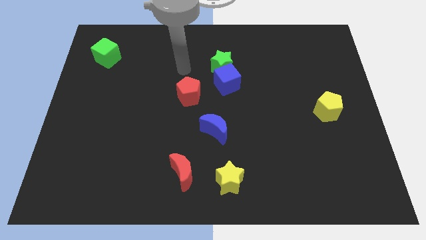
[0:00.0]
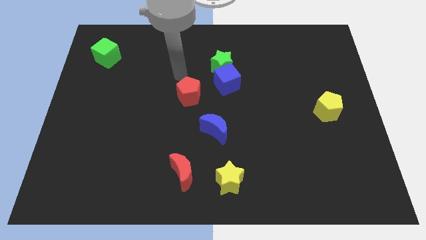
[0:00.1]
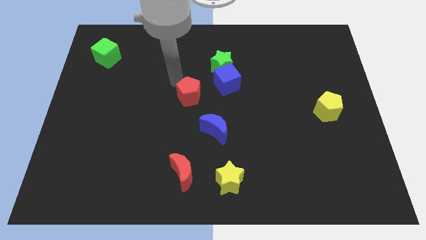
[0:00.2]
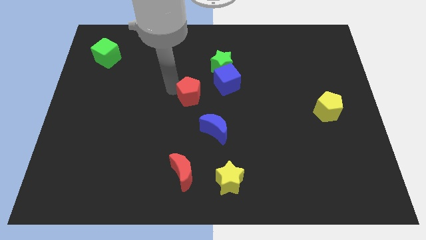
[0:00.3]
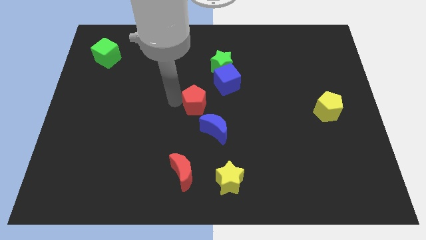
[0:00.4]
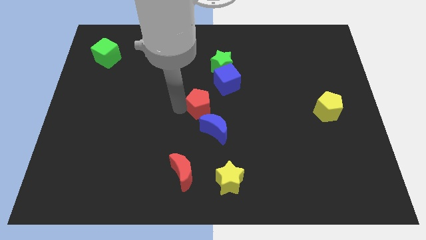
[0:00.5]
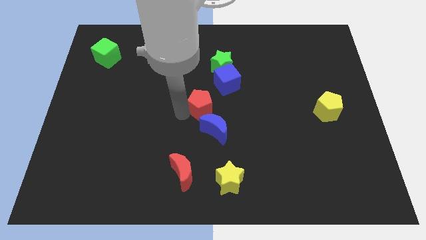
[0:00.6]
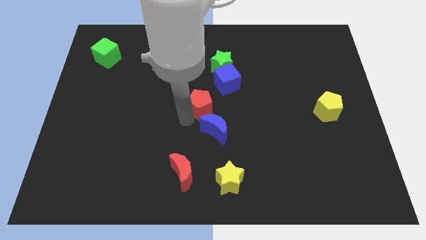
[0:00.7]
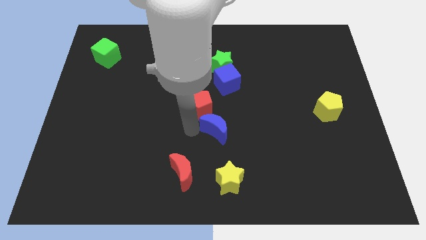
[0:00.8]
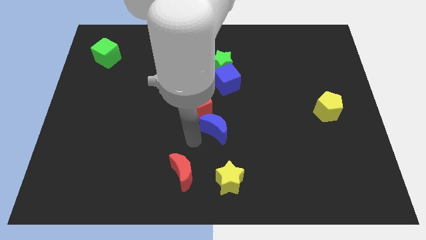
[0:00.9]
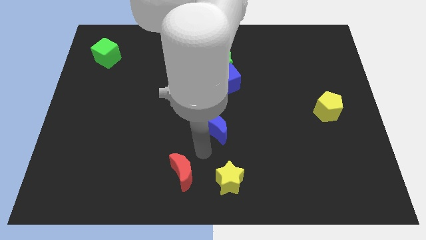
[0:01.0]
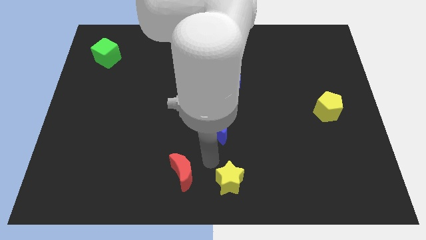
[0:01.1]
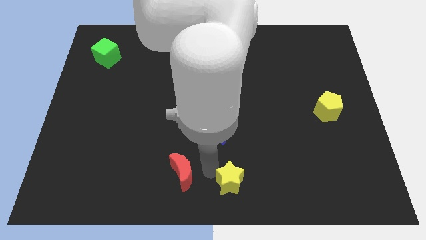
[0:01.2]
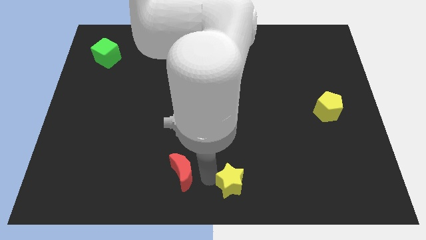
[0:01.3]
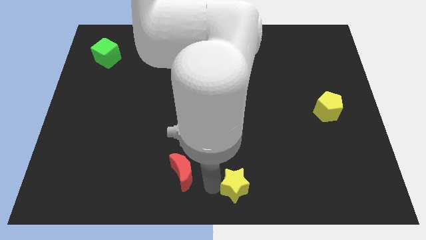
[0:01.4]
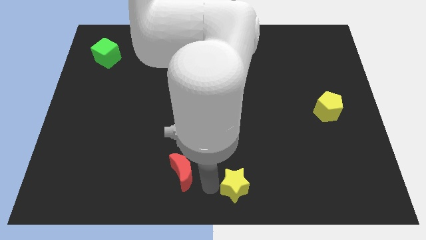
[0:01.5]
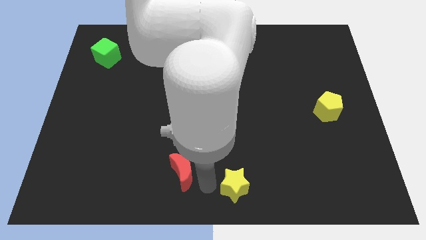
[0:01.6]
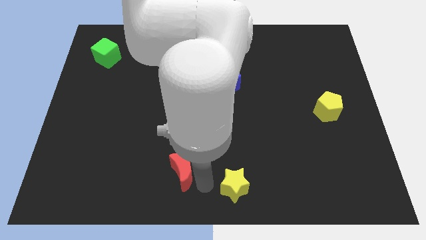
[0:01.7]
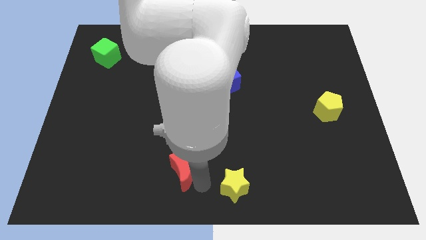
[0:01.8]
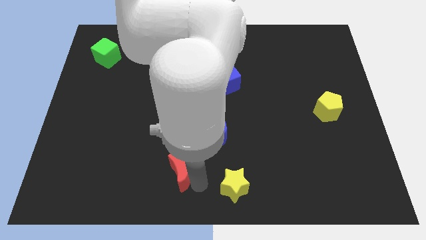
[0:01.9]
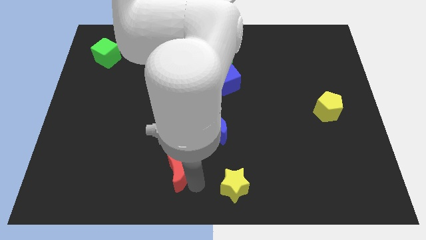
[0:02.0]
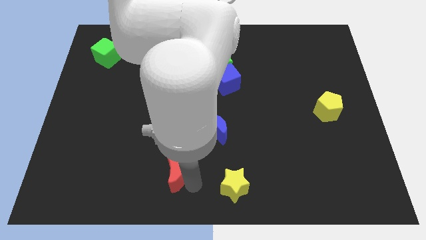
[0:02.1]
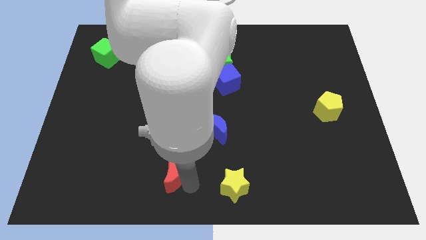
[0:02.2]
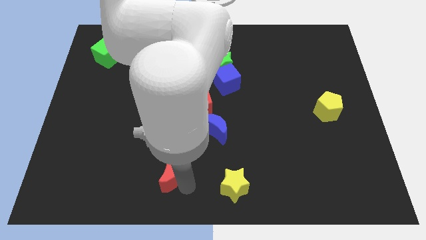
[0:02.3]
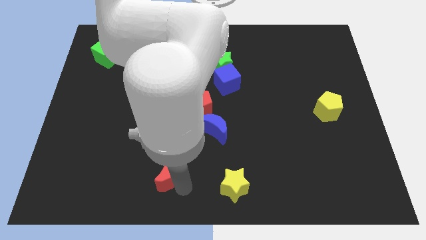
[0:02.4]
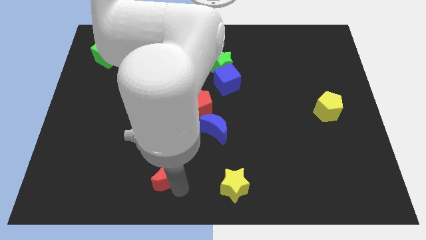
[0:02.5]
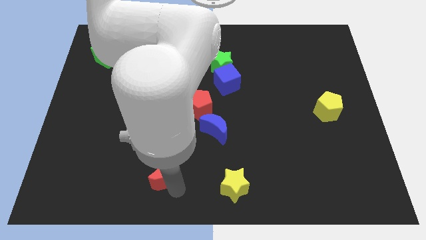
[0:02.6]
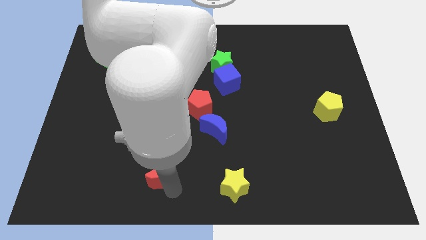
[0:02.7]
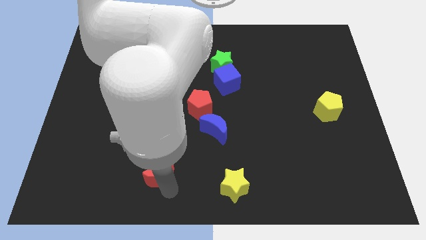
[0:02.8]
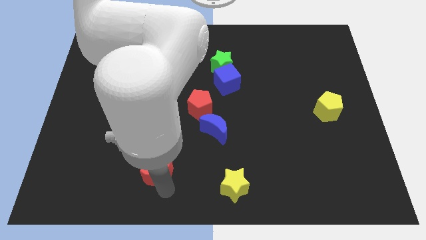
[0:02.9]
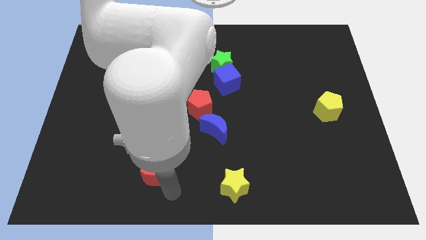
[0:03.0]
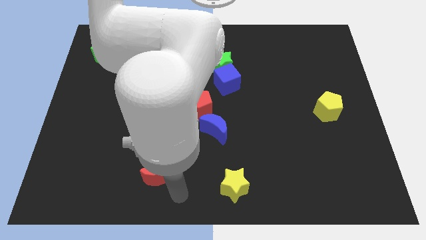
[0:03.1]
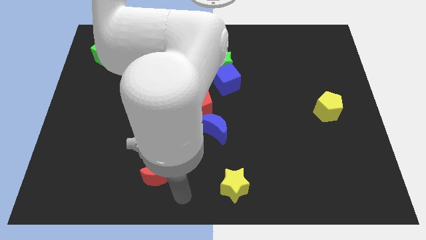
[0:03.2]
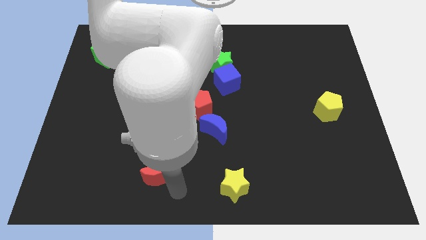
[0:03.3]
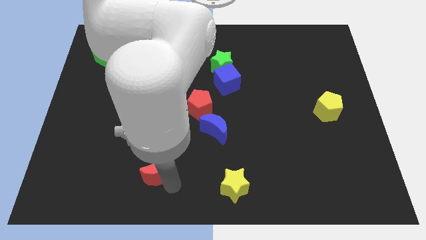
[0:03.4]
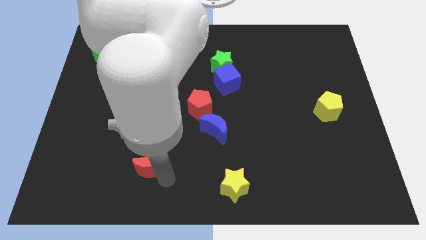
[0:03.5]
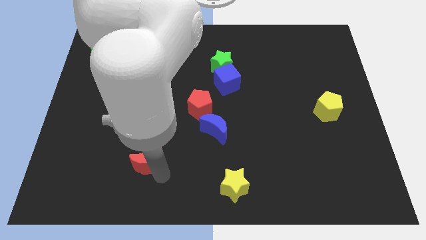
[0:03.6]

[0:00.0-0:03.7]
slide the red moon to the left a bit

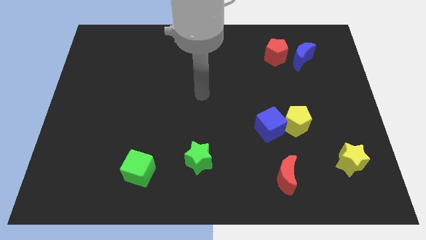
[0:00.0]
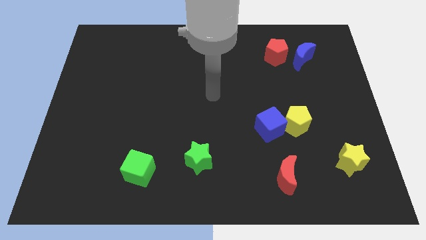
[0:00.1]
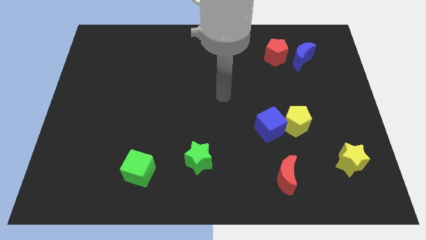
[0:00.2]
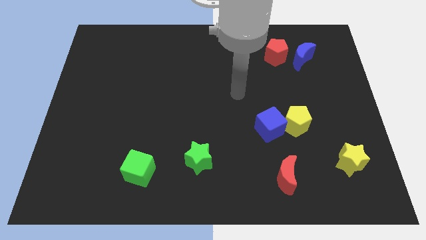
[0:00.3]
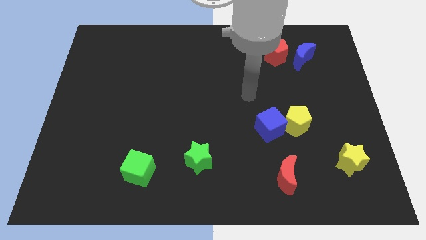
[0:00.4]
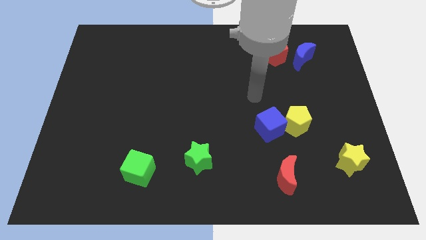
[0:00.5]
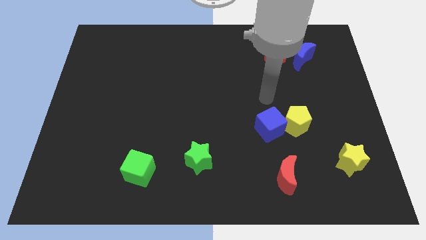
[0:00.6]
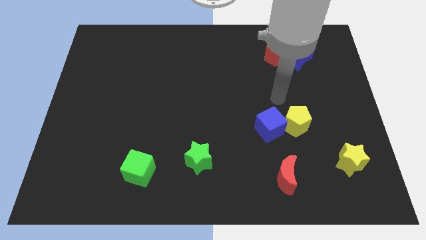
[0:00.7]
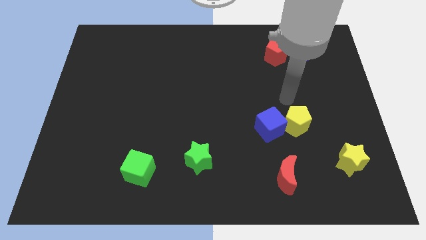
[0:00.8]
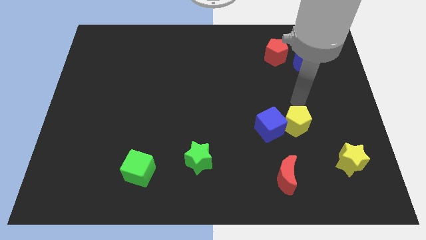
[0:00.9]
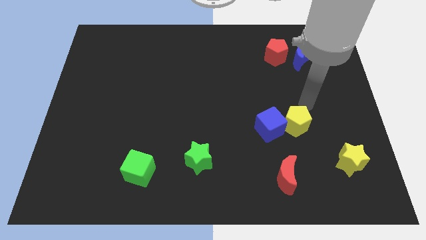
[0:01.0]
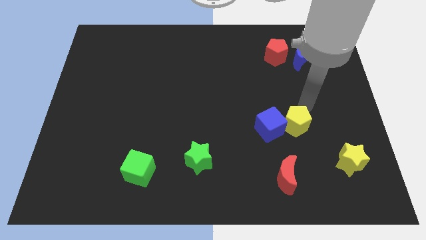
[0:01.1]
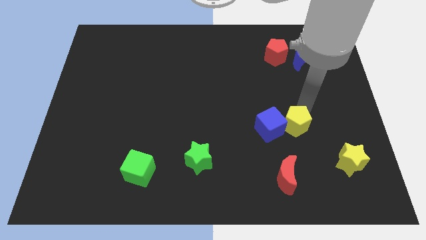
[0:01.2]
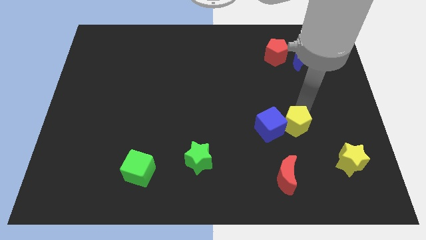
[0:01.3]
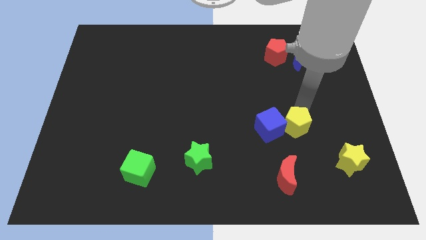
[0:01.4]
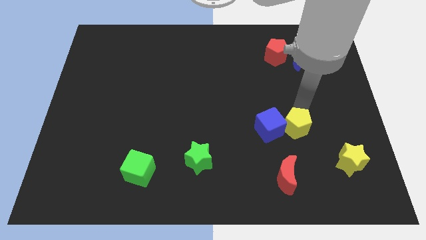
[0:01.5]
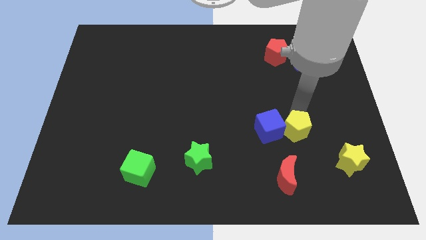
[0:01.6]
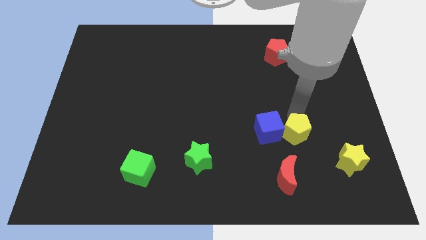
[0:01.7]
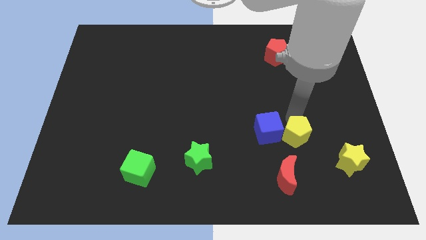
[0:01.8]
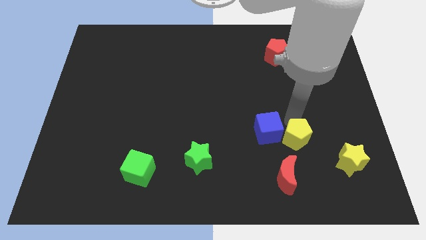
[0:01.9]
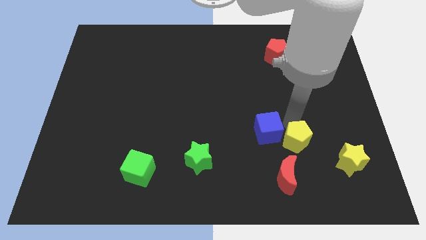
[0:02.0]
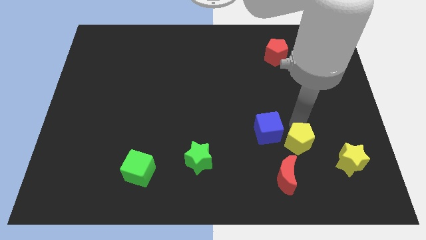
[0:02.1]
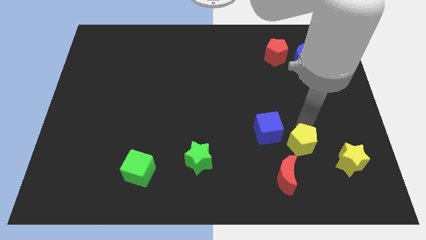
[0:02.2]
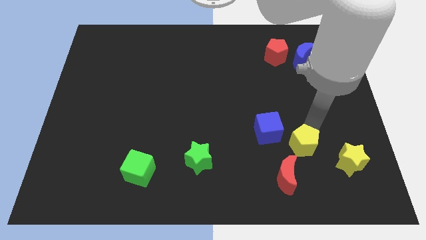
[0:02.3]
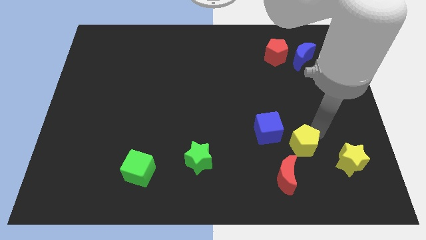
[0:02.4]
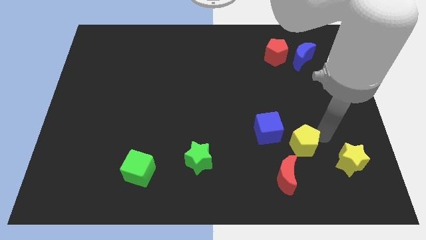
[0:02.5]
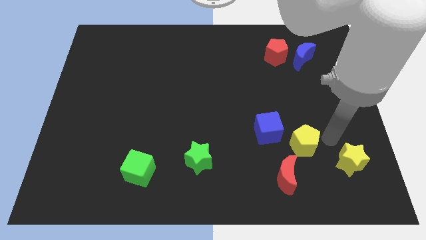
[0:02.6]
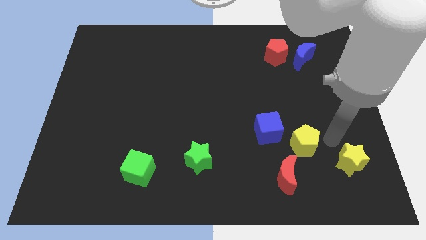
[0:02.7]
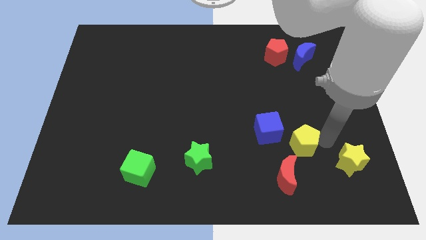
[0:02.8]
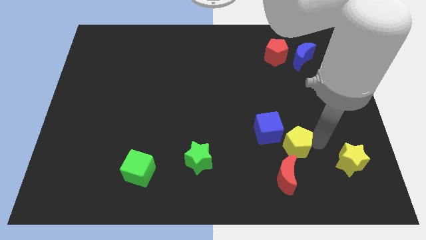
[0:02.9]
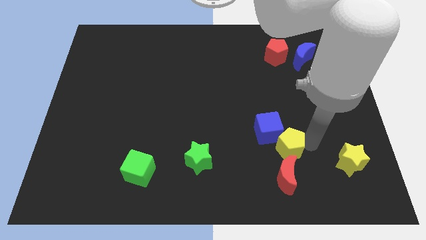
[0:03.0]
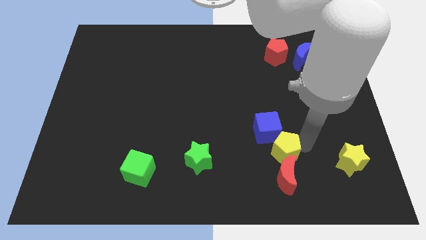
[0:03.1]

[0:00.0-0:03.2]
slightly move the yellow pentagon downwards and to the left

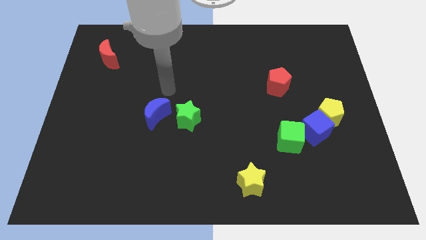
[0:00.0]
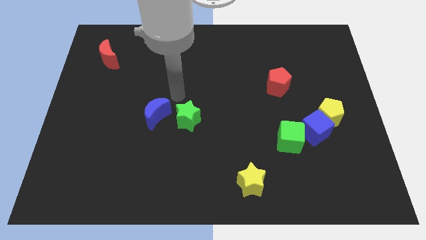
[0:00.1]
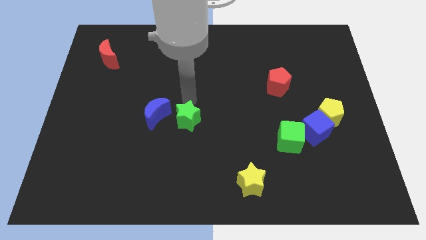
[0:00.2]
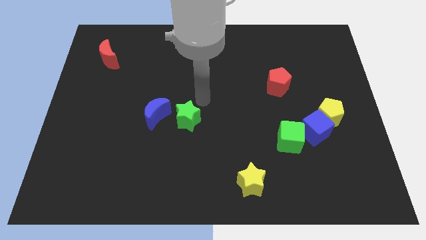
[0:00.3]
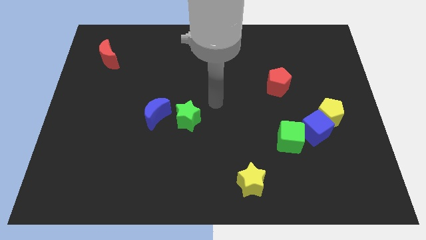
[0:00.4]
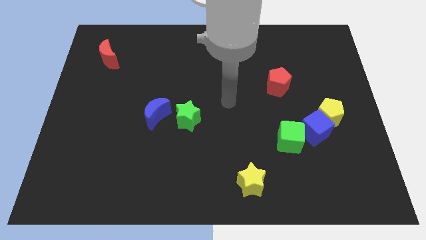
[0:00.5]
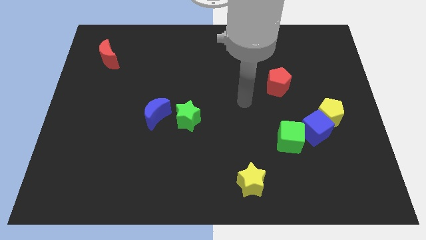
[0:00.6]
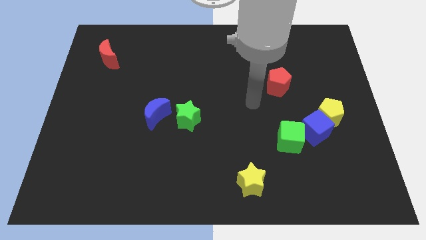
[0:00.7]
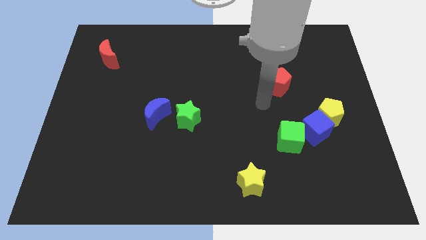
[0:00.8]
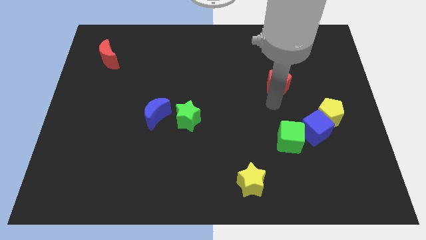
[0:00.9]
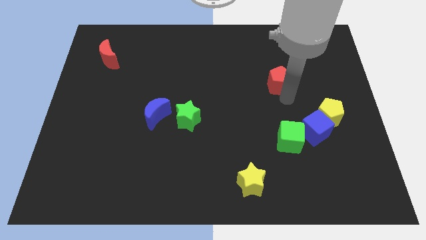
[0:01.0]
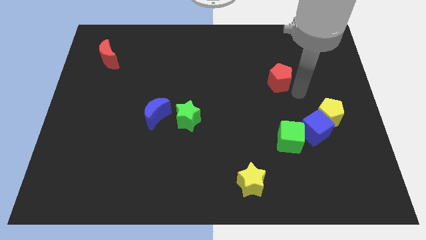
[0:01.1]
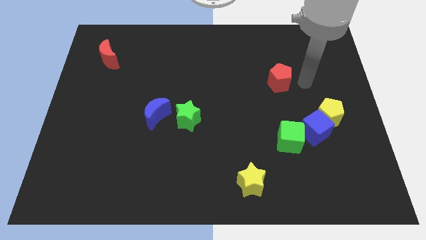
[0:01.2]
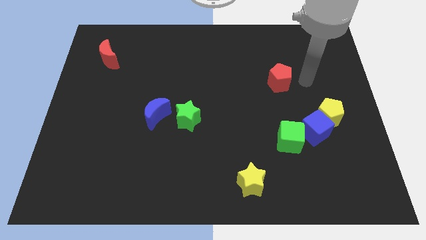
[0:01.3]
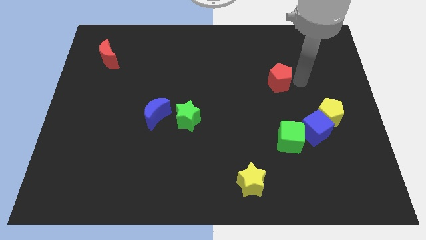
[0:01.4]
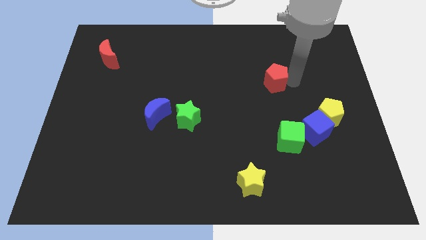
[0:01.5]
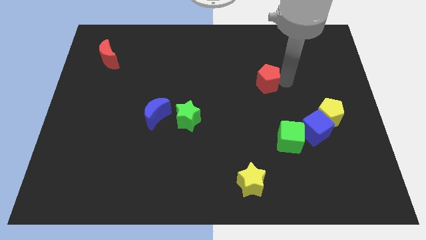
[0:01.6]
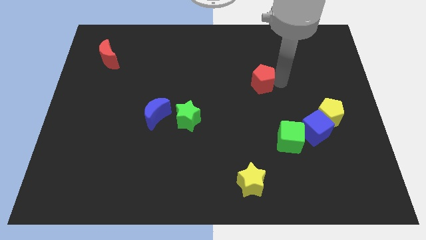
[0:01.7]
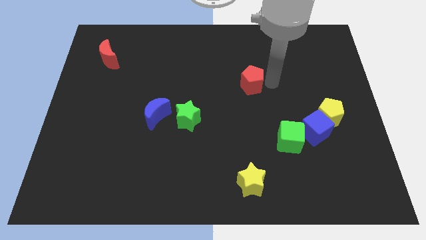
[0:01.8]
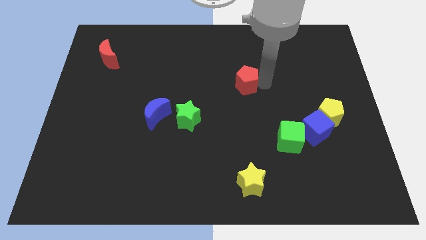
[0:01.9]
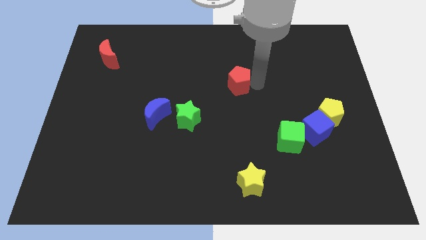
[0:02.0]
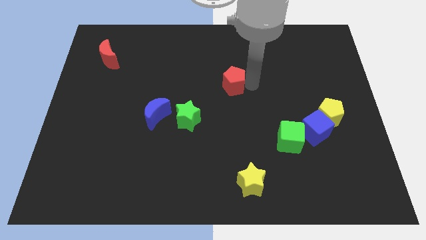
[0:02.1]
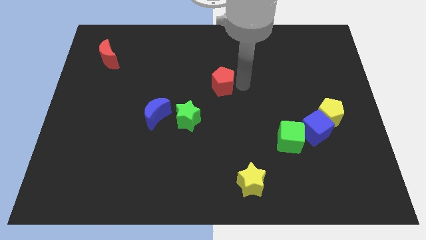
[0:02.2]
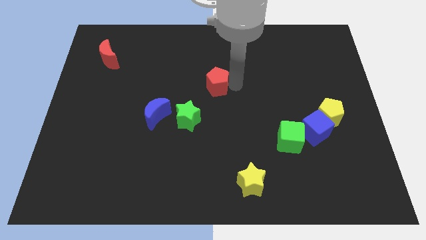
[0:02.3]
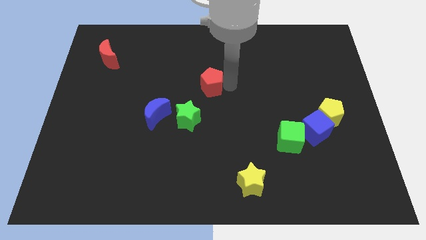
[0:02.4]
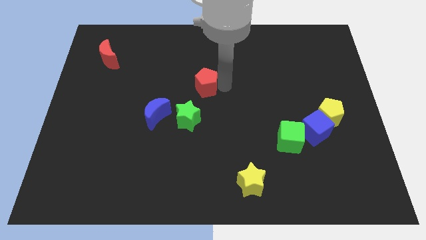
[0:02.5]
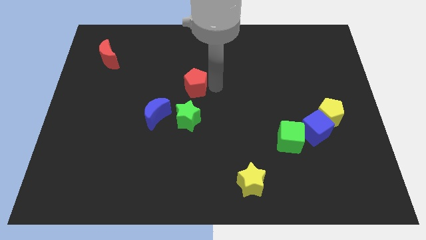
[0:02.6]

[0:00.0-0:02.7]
move the red pentagon to the left
